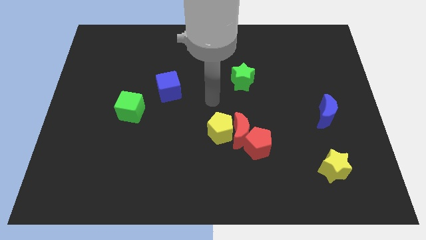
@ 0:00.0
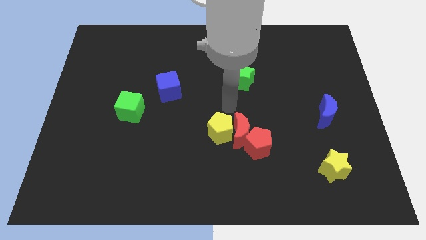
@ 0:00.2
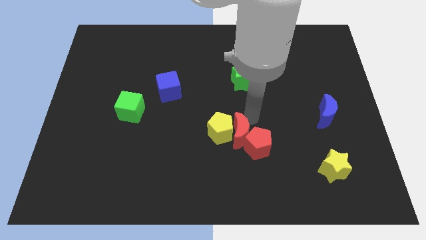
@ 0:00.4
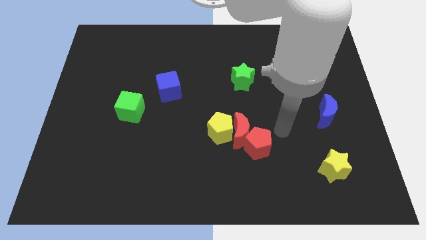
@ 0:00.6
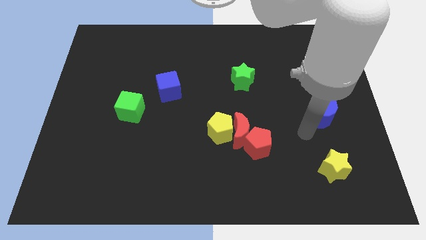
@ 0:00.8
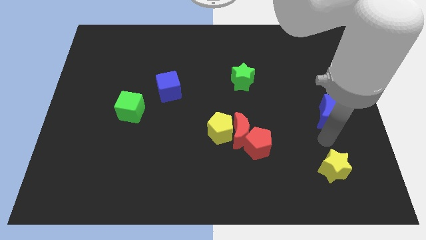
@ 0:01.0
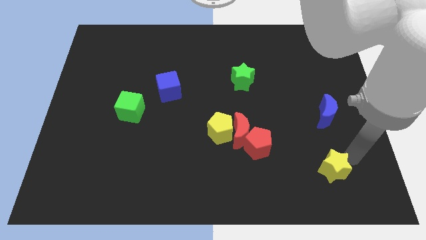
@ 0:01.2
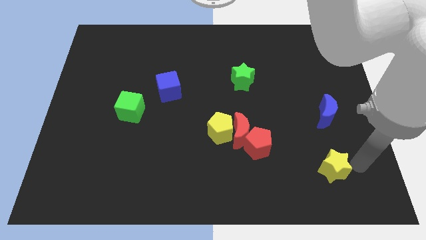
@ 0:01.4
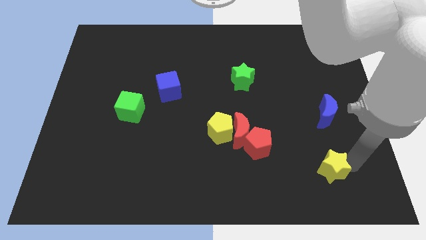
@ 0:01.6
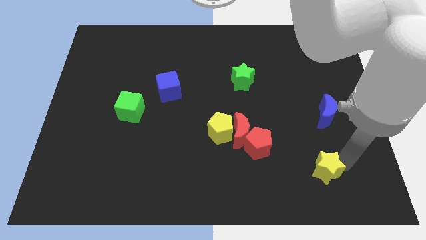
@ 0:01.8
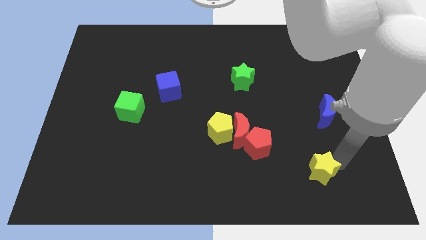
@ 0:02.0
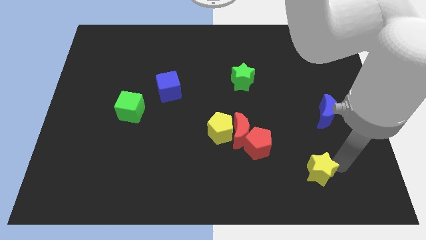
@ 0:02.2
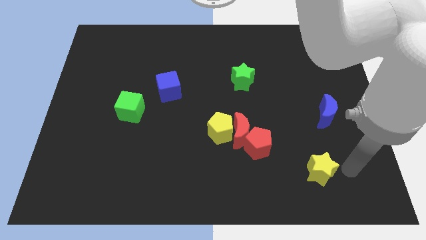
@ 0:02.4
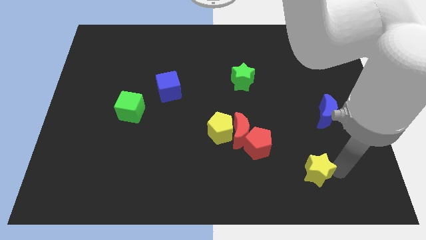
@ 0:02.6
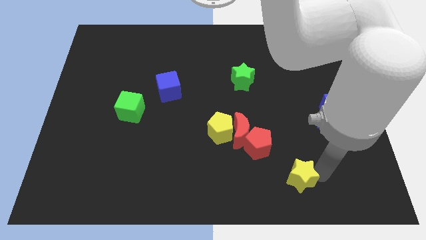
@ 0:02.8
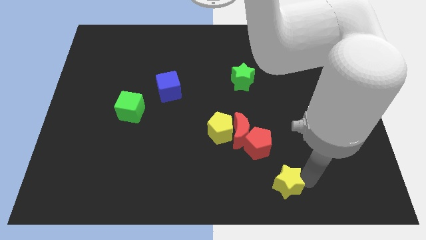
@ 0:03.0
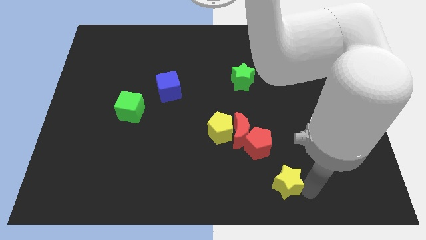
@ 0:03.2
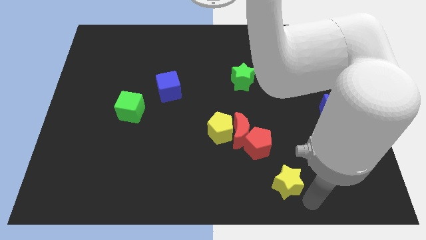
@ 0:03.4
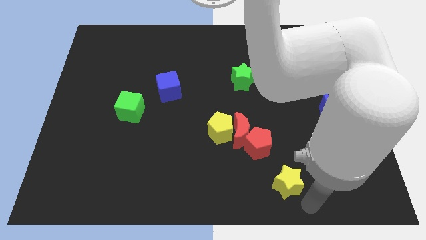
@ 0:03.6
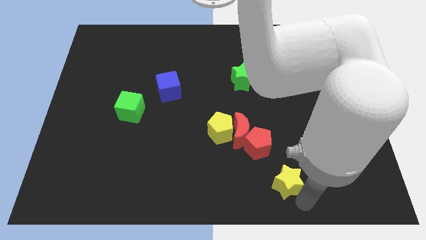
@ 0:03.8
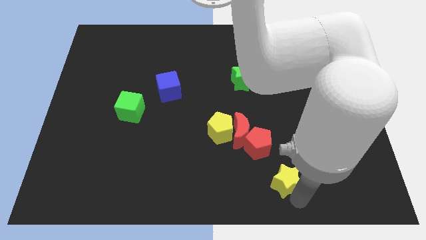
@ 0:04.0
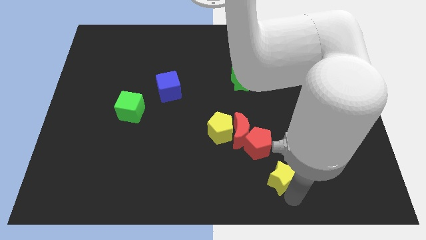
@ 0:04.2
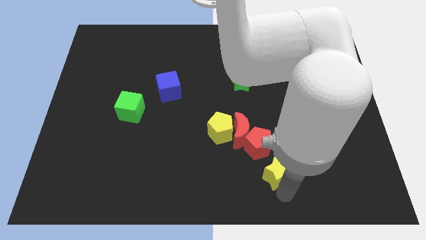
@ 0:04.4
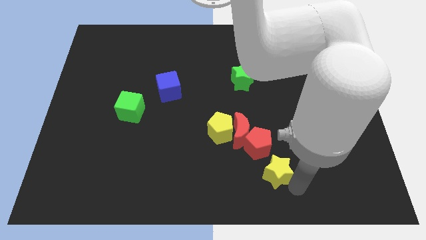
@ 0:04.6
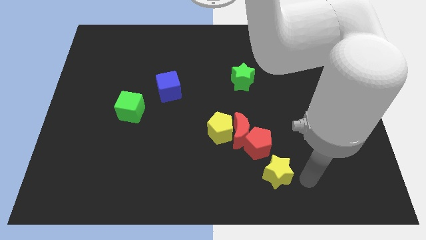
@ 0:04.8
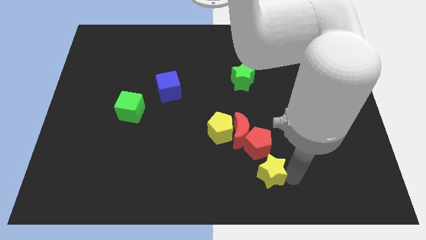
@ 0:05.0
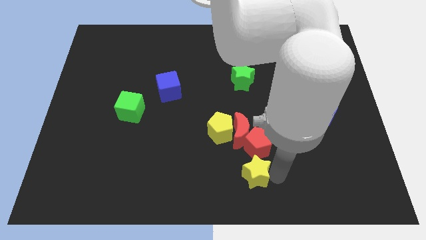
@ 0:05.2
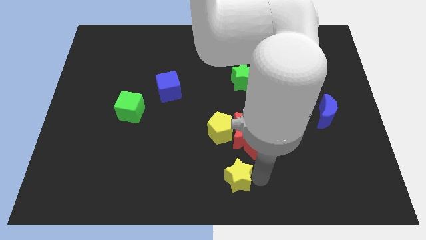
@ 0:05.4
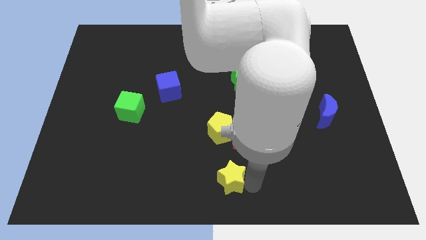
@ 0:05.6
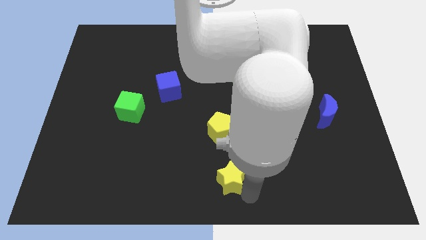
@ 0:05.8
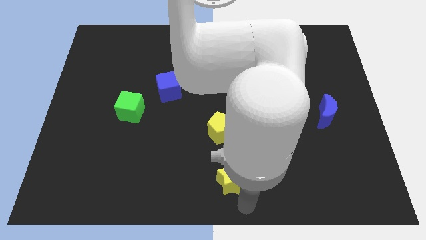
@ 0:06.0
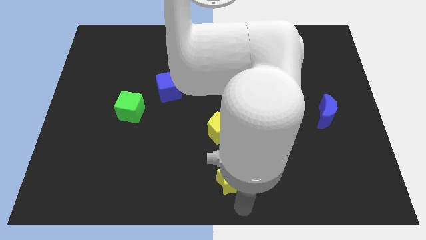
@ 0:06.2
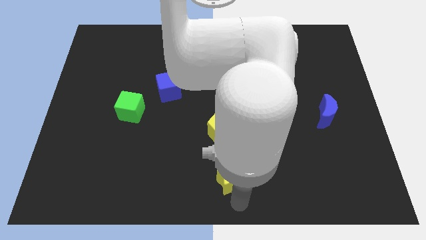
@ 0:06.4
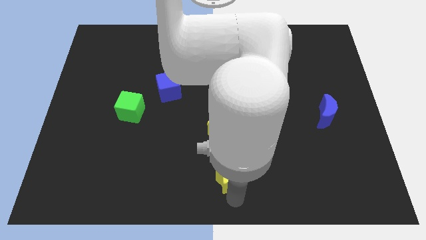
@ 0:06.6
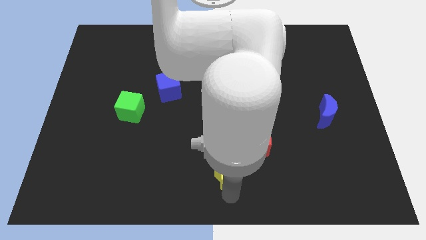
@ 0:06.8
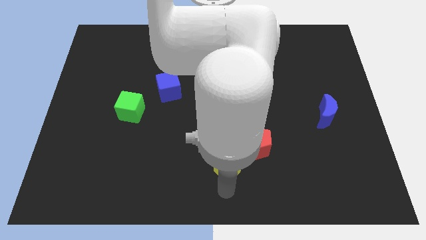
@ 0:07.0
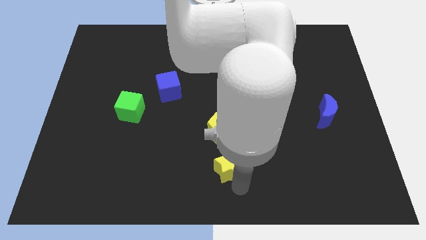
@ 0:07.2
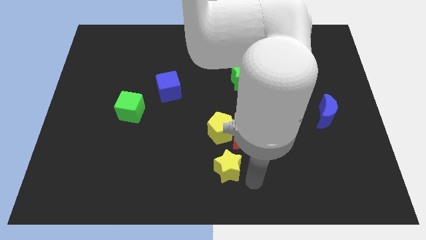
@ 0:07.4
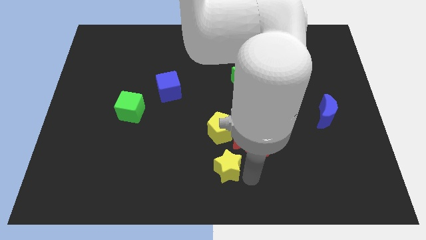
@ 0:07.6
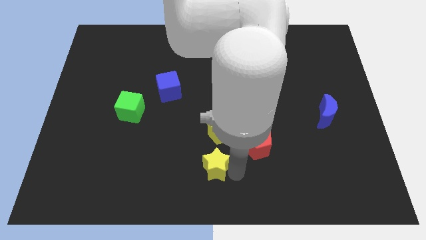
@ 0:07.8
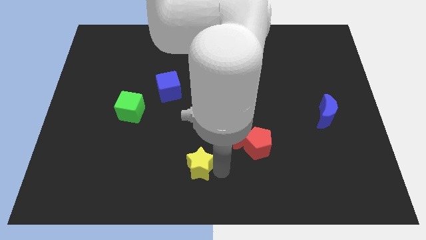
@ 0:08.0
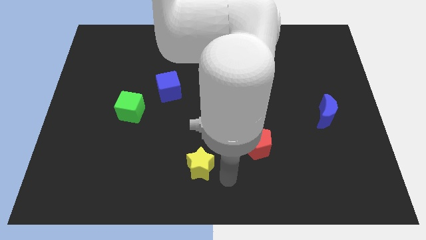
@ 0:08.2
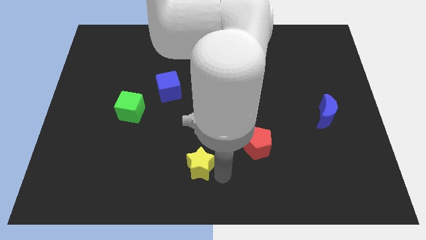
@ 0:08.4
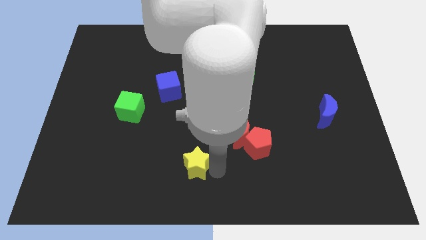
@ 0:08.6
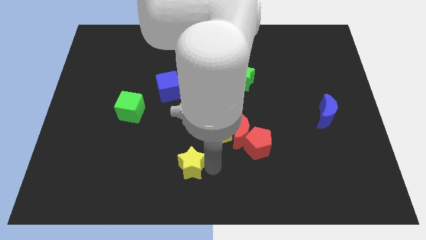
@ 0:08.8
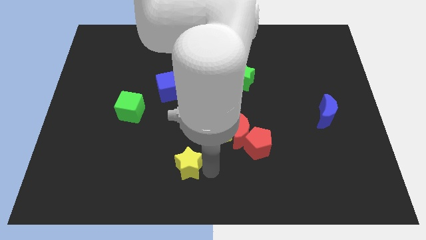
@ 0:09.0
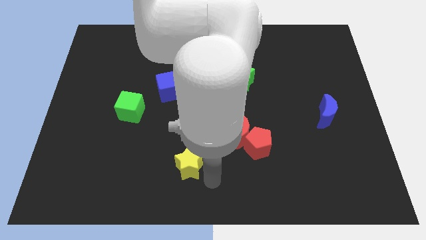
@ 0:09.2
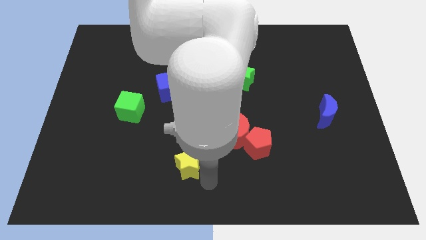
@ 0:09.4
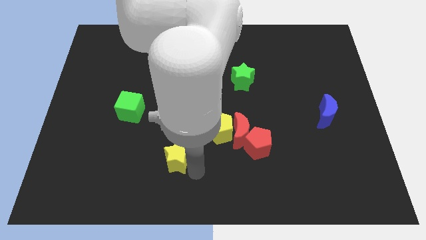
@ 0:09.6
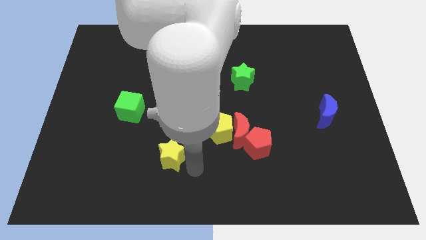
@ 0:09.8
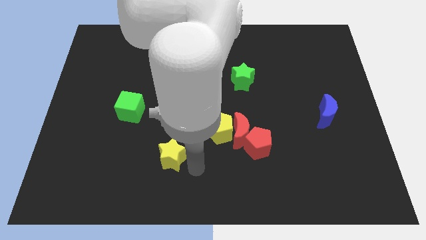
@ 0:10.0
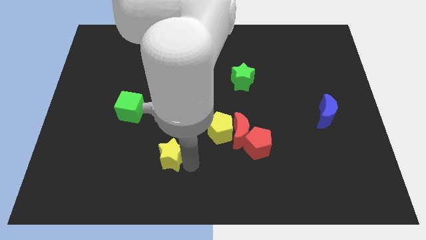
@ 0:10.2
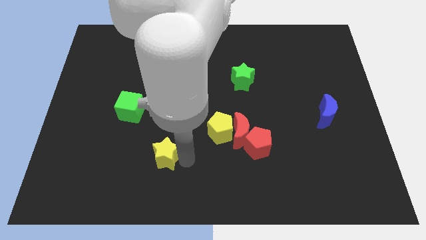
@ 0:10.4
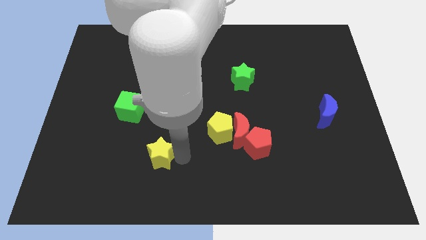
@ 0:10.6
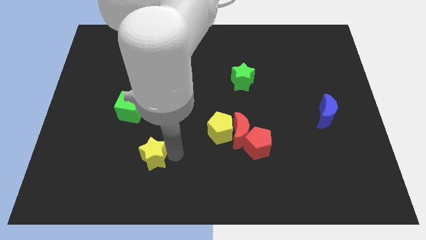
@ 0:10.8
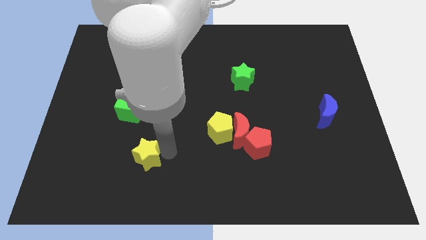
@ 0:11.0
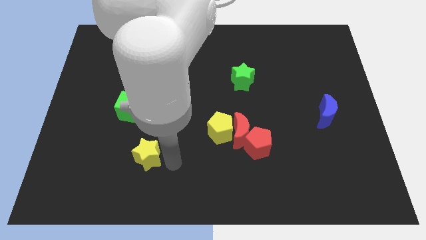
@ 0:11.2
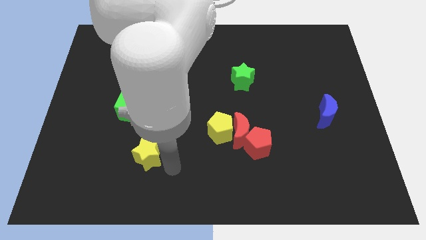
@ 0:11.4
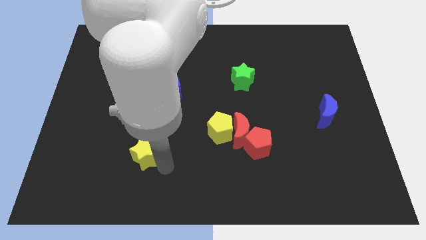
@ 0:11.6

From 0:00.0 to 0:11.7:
move the yellow star to the bottom side of the green cube
